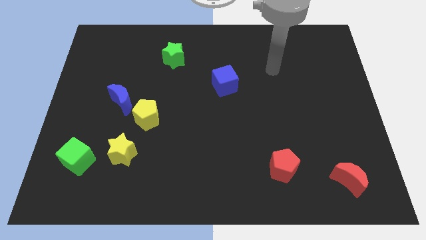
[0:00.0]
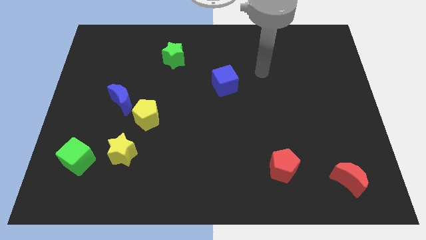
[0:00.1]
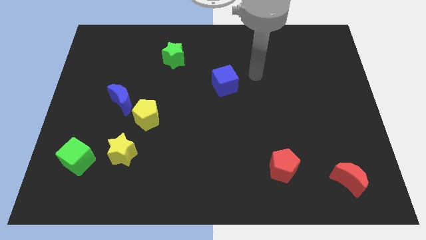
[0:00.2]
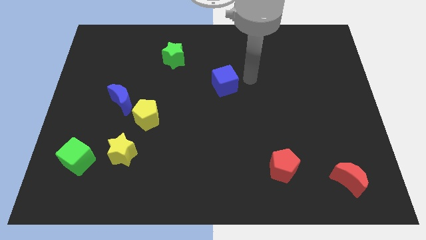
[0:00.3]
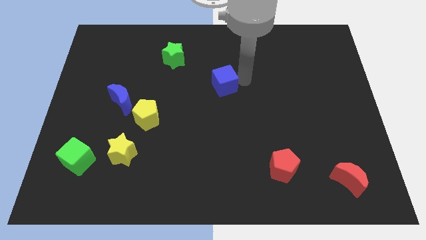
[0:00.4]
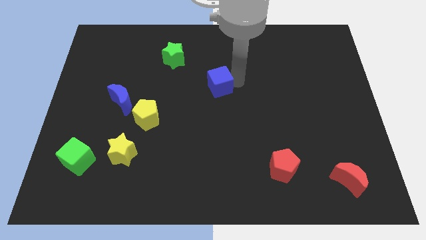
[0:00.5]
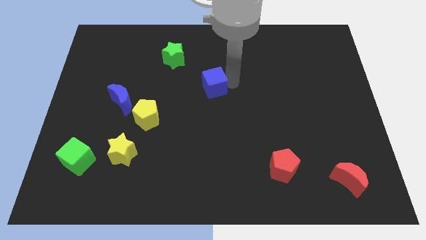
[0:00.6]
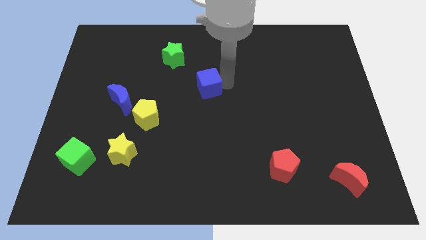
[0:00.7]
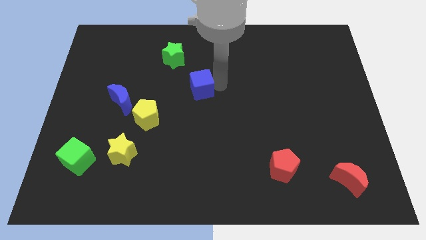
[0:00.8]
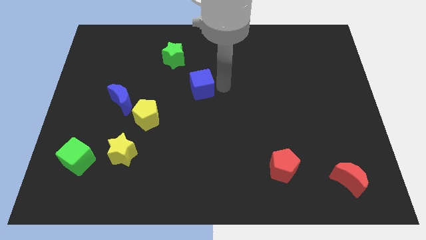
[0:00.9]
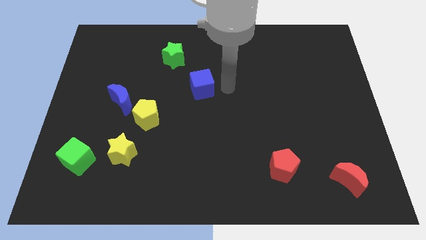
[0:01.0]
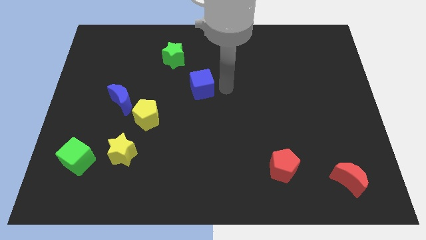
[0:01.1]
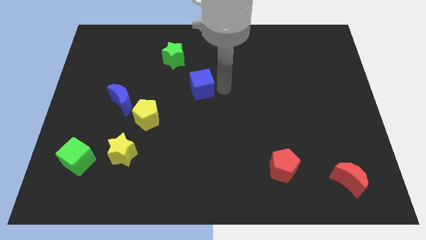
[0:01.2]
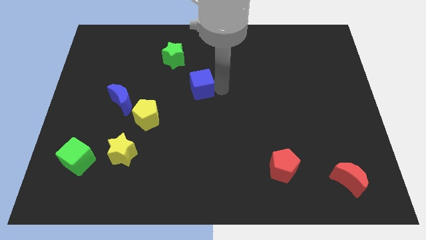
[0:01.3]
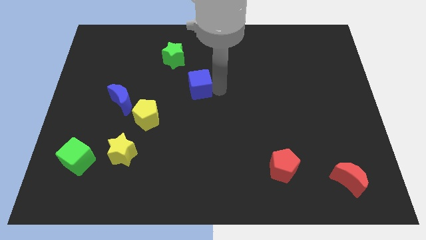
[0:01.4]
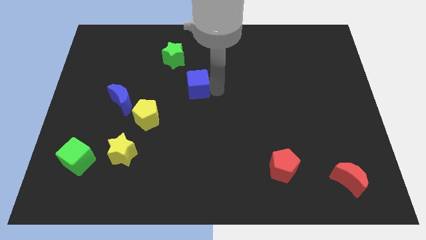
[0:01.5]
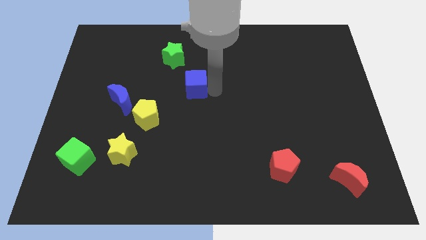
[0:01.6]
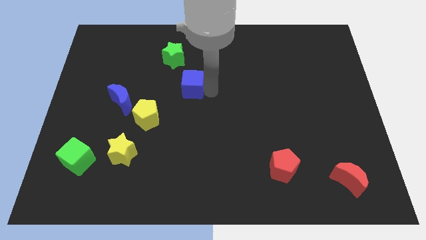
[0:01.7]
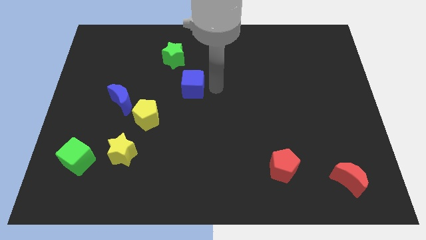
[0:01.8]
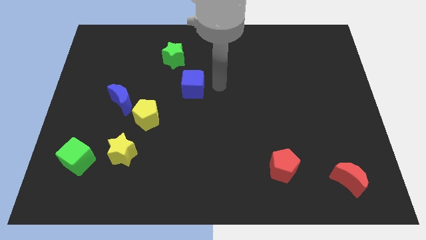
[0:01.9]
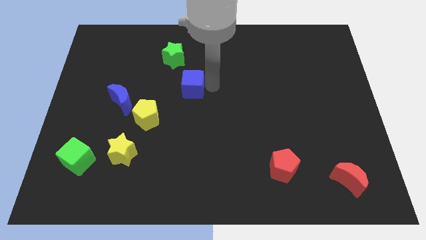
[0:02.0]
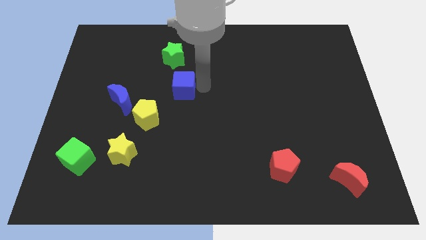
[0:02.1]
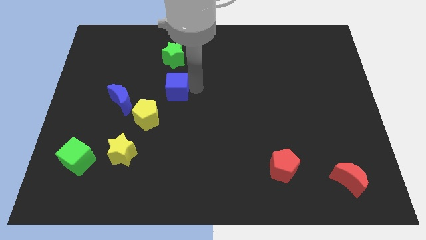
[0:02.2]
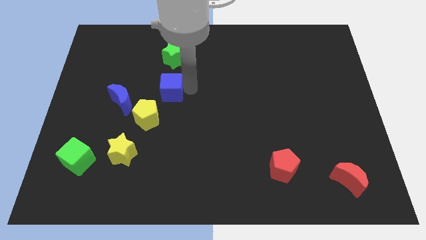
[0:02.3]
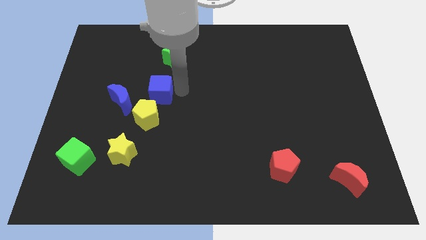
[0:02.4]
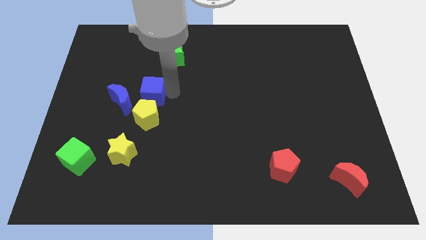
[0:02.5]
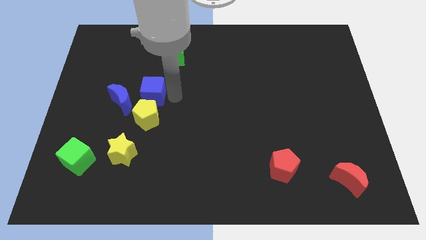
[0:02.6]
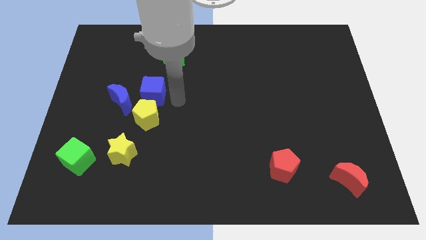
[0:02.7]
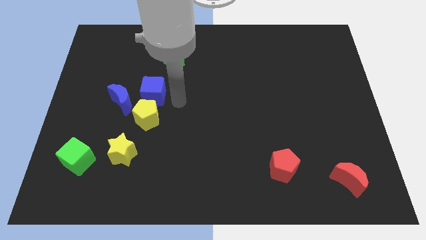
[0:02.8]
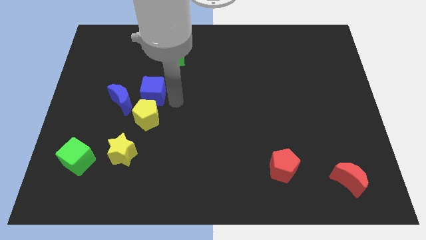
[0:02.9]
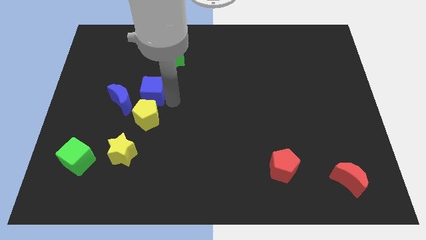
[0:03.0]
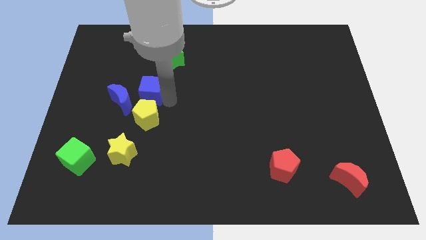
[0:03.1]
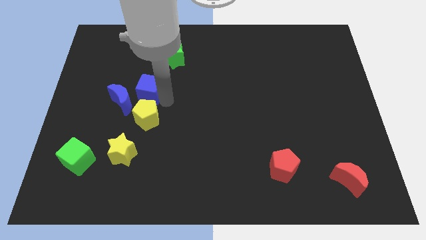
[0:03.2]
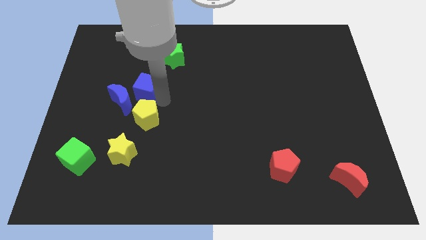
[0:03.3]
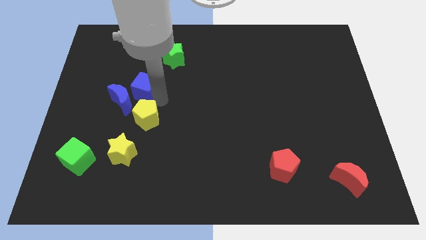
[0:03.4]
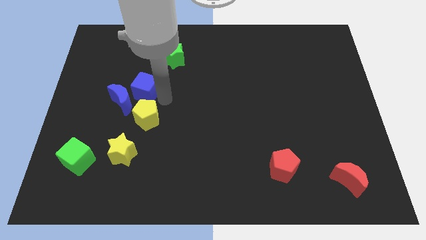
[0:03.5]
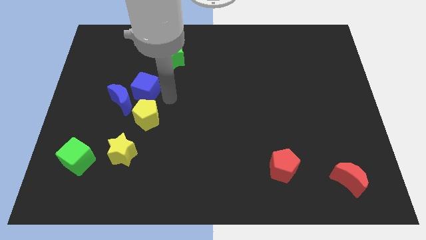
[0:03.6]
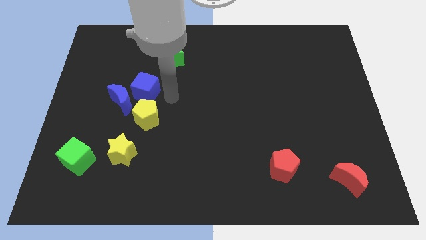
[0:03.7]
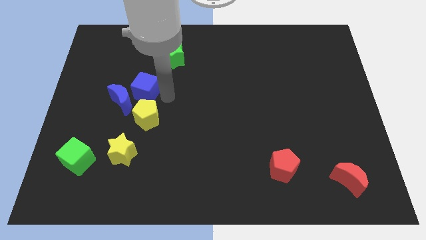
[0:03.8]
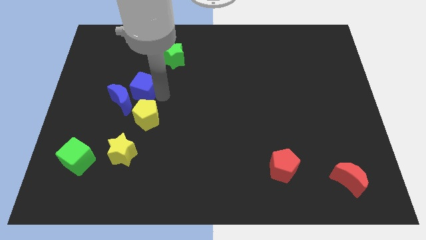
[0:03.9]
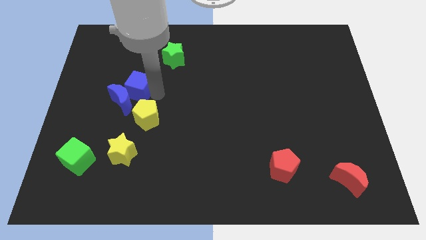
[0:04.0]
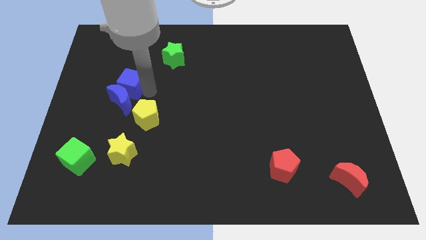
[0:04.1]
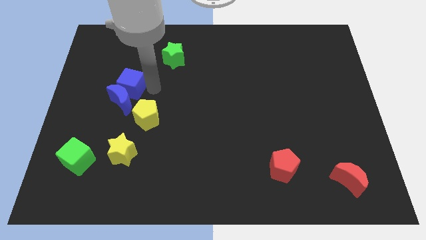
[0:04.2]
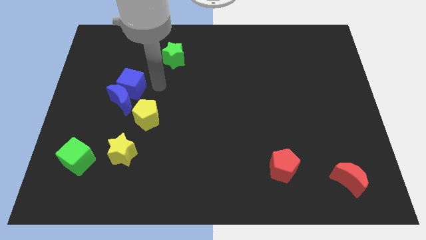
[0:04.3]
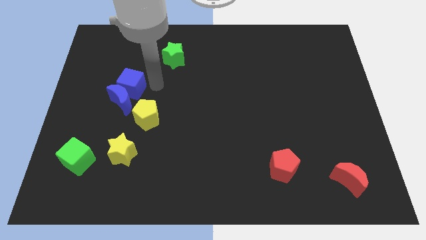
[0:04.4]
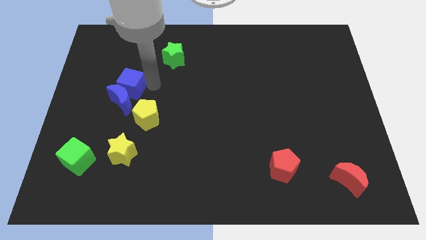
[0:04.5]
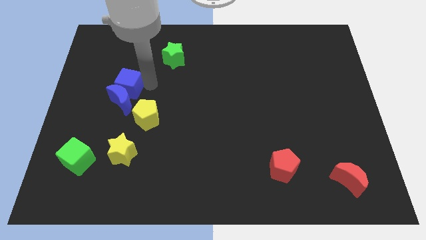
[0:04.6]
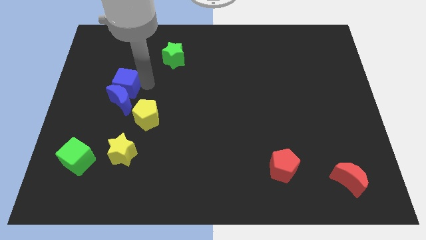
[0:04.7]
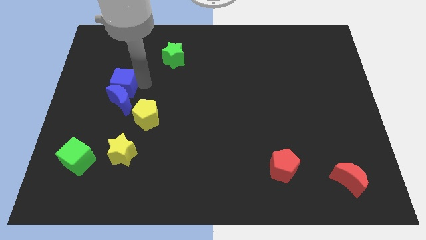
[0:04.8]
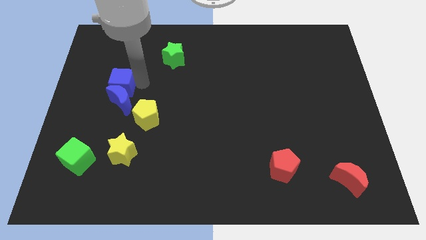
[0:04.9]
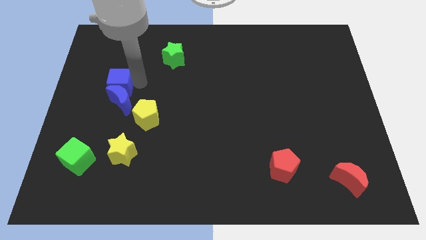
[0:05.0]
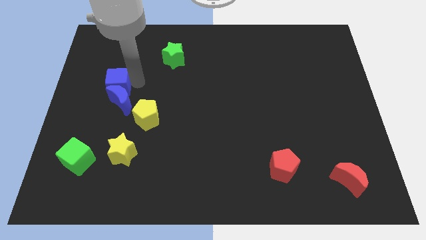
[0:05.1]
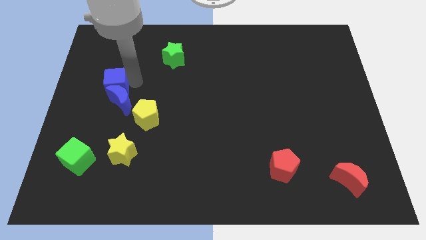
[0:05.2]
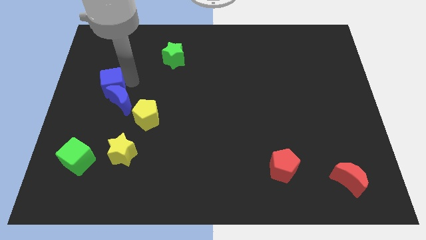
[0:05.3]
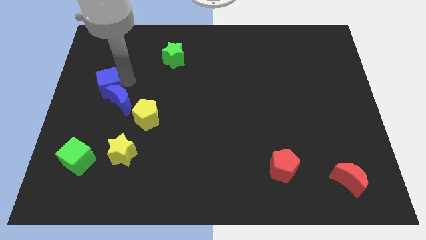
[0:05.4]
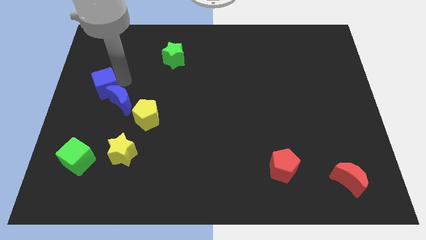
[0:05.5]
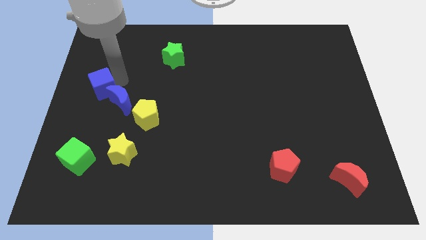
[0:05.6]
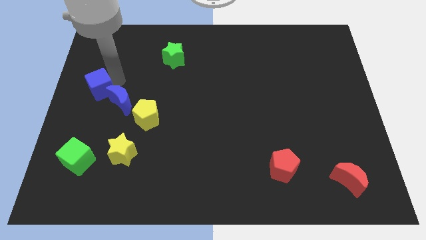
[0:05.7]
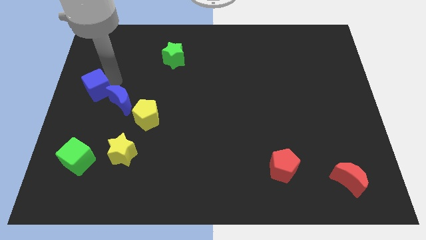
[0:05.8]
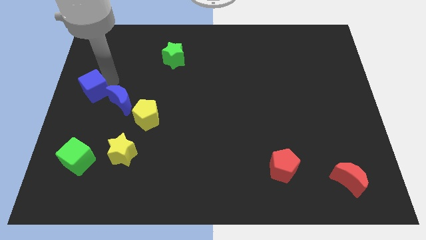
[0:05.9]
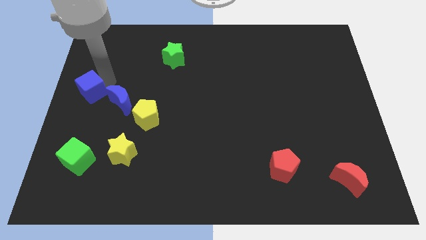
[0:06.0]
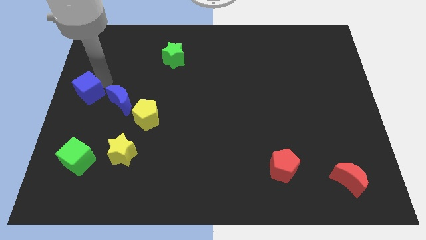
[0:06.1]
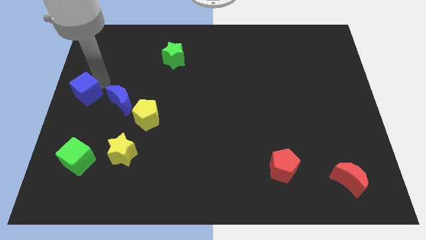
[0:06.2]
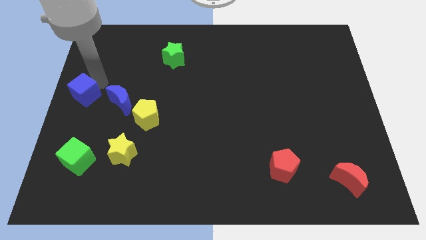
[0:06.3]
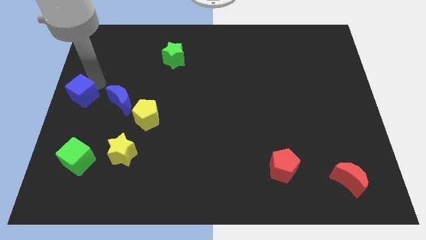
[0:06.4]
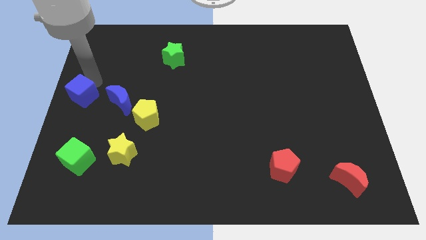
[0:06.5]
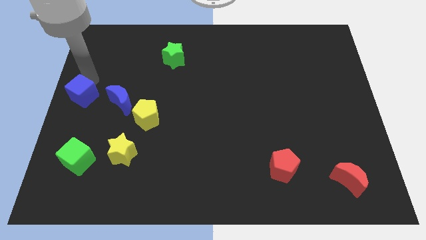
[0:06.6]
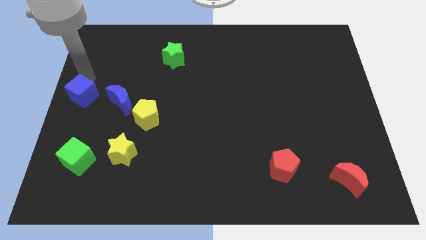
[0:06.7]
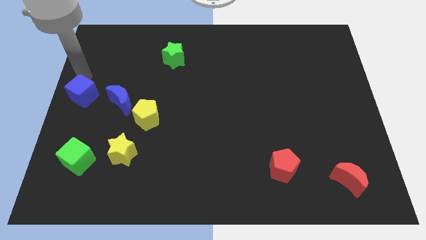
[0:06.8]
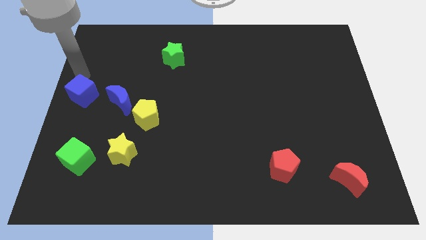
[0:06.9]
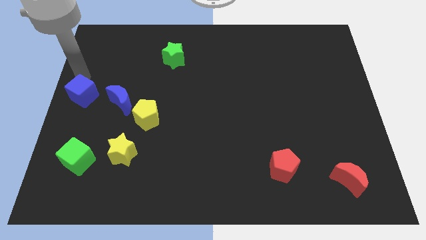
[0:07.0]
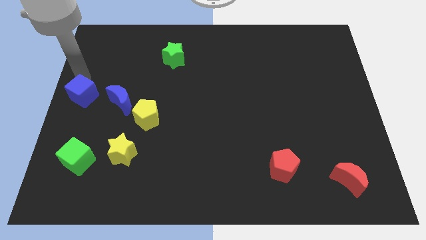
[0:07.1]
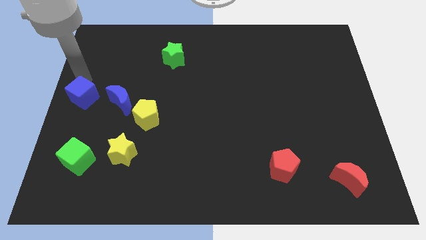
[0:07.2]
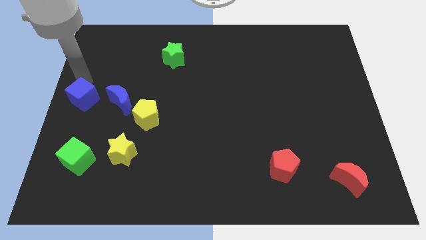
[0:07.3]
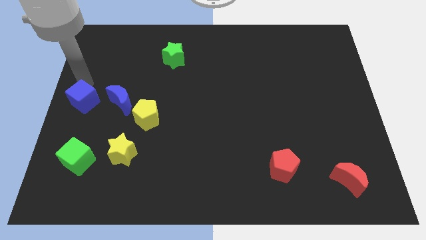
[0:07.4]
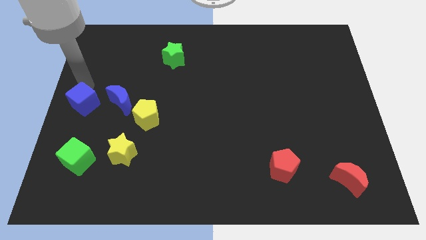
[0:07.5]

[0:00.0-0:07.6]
push the blue cube to the top of the green cube
